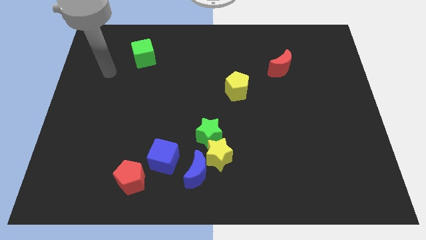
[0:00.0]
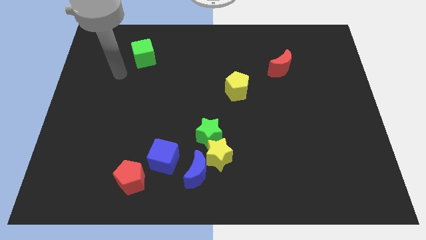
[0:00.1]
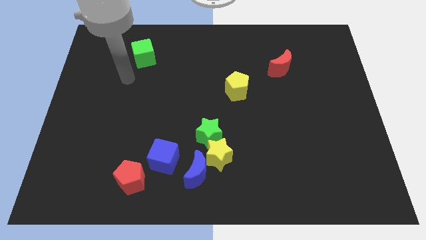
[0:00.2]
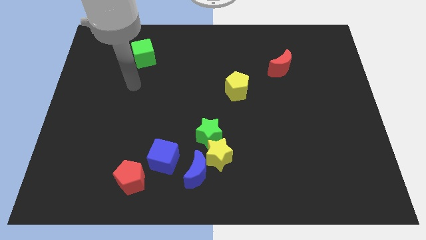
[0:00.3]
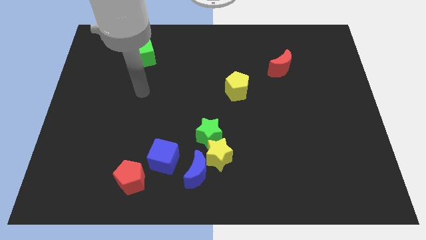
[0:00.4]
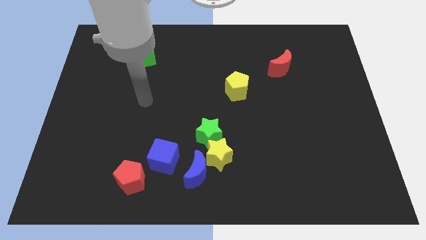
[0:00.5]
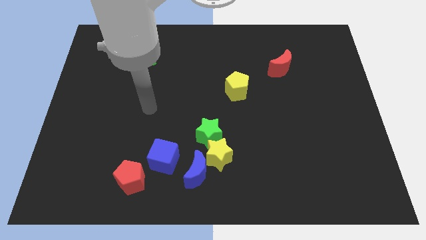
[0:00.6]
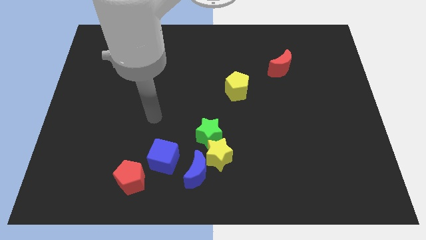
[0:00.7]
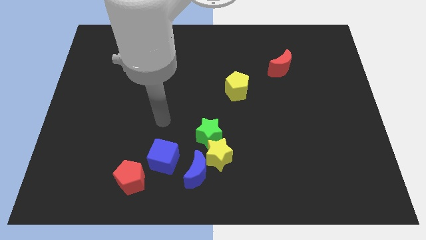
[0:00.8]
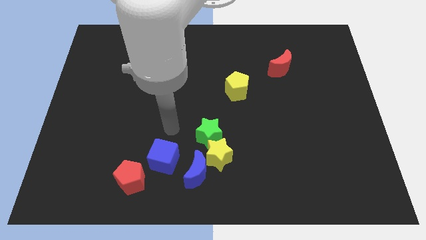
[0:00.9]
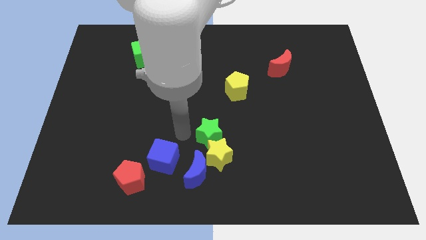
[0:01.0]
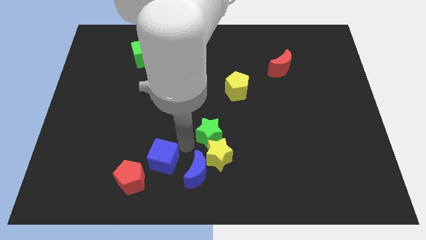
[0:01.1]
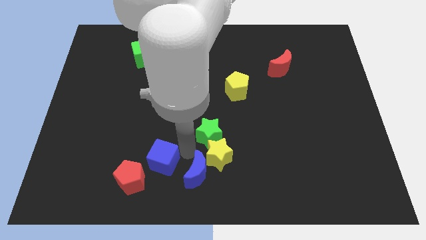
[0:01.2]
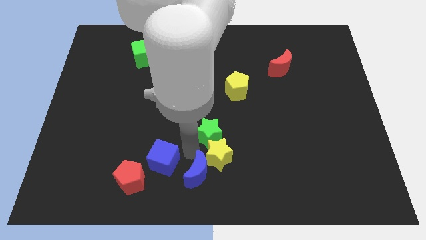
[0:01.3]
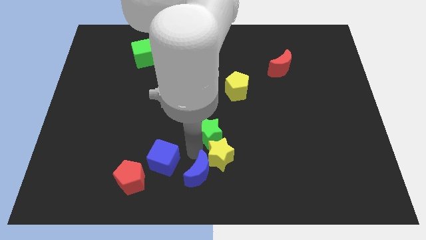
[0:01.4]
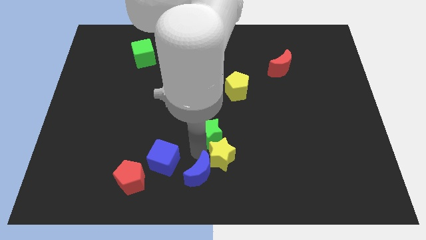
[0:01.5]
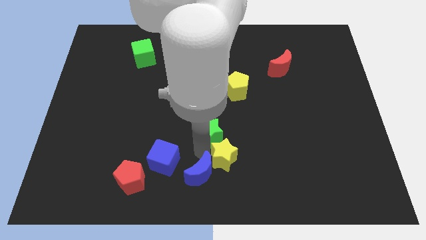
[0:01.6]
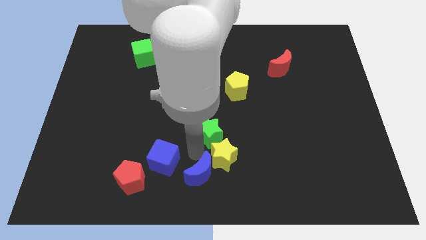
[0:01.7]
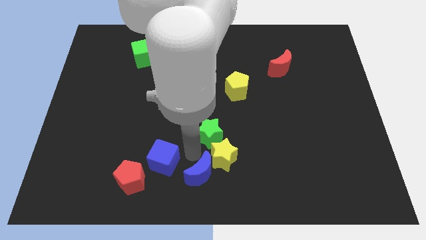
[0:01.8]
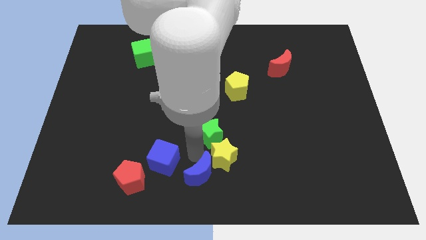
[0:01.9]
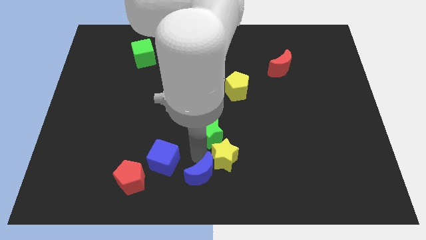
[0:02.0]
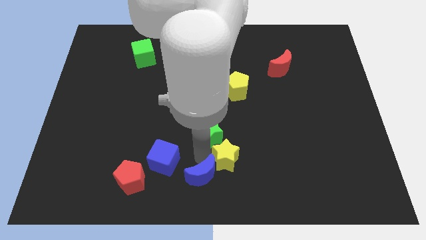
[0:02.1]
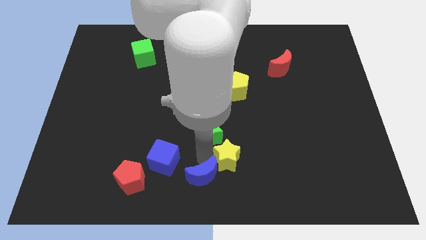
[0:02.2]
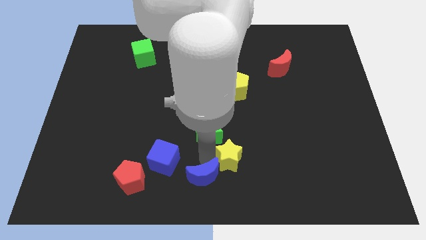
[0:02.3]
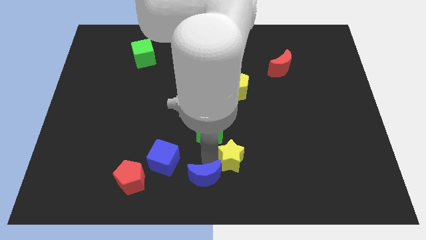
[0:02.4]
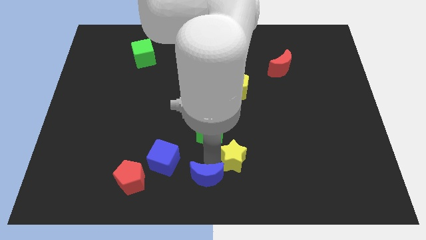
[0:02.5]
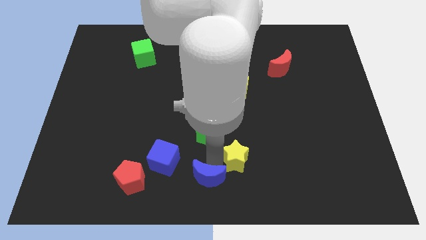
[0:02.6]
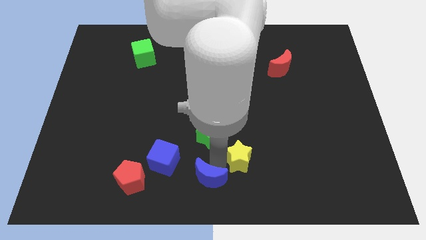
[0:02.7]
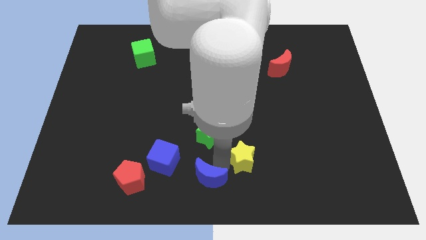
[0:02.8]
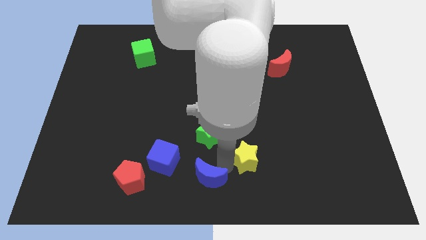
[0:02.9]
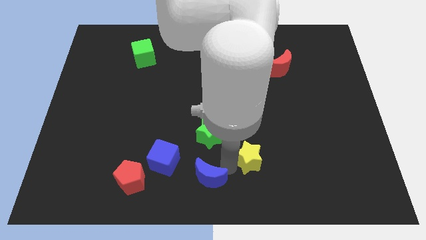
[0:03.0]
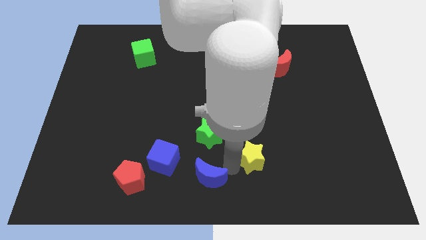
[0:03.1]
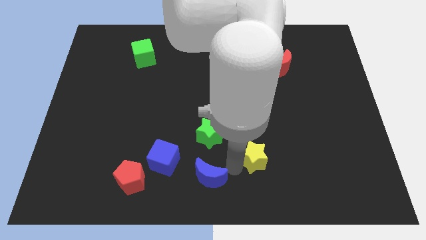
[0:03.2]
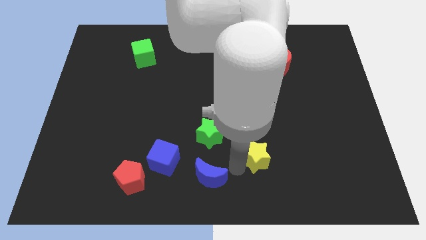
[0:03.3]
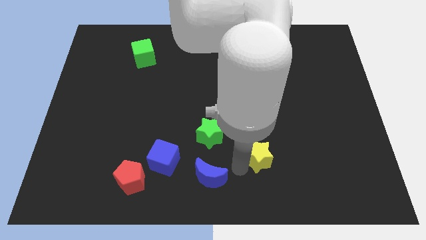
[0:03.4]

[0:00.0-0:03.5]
separate the yellow star from the green star and blue moon

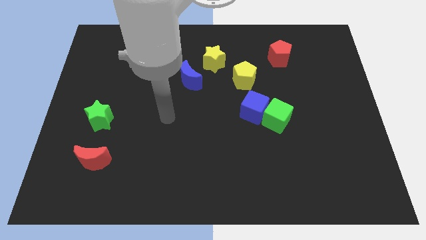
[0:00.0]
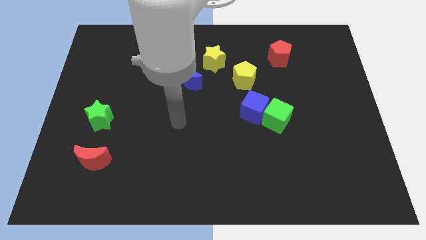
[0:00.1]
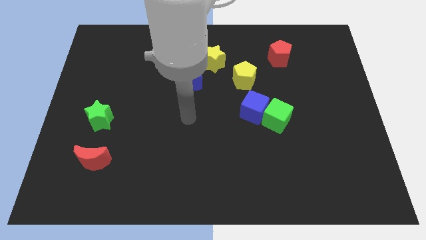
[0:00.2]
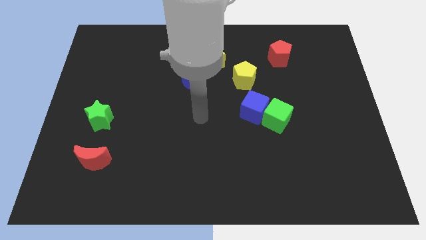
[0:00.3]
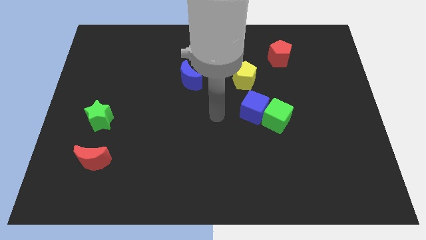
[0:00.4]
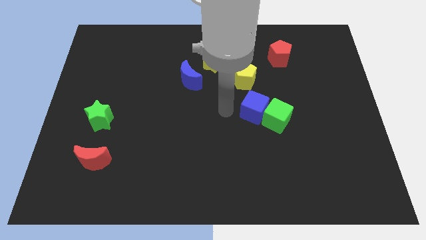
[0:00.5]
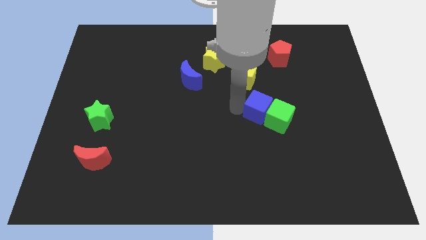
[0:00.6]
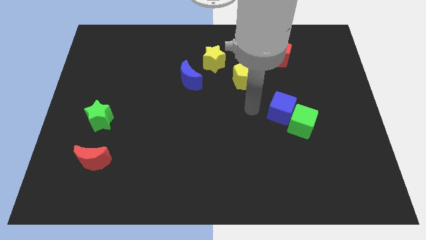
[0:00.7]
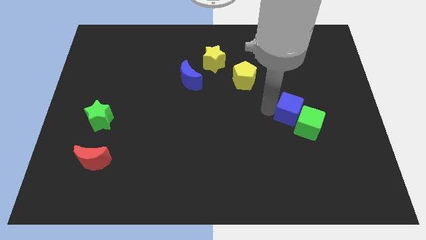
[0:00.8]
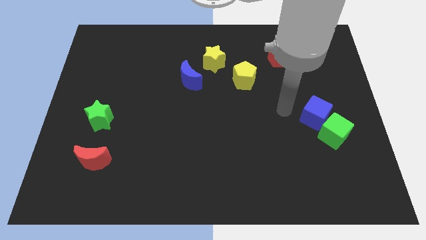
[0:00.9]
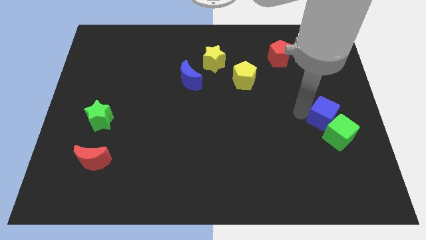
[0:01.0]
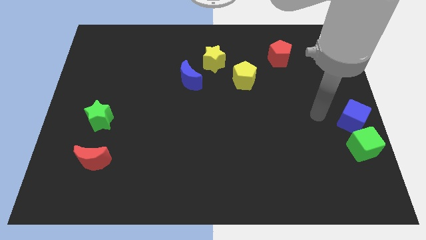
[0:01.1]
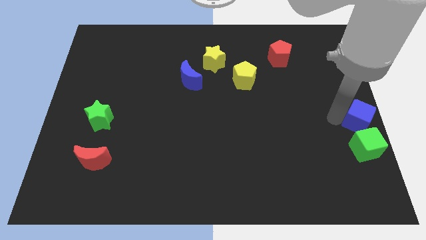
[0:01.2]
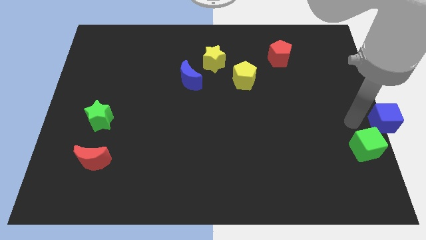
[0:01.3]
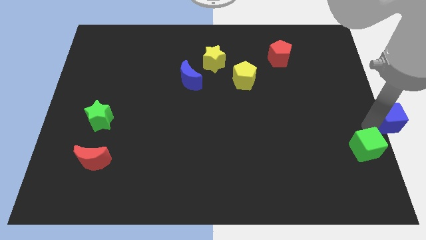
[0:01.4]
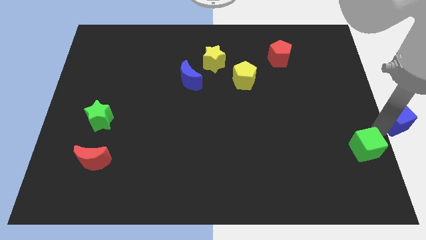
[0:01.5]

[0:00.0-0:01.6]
separate the green cube from the blue cube

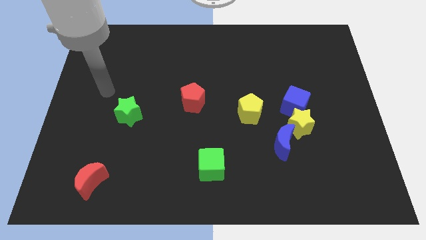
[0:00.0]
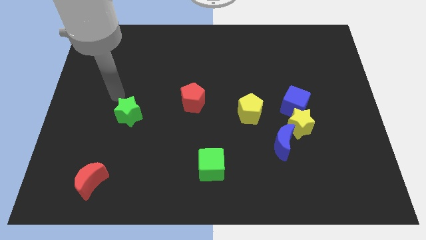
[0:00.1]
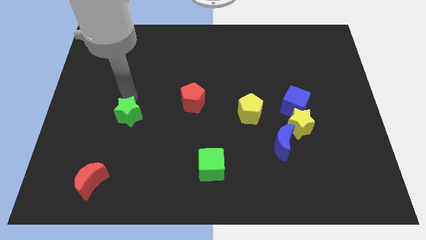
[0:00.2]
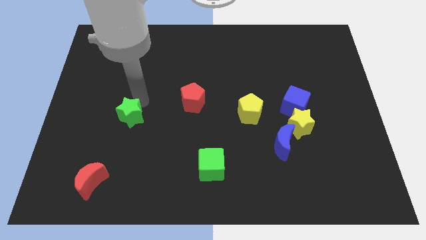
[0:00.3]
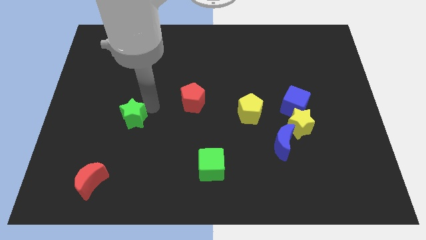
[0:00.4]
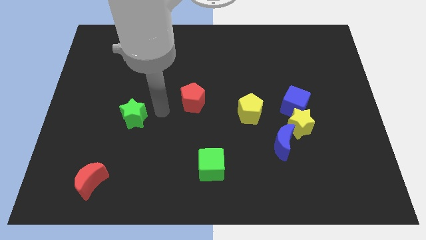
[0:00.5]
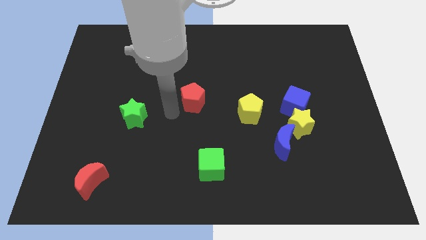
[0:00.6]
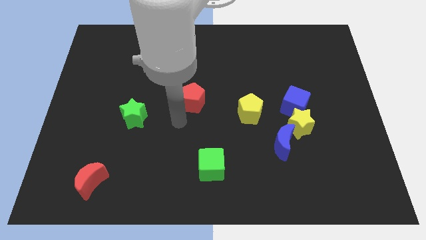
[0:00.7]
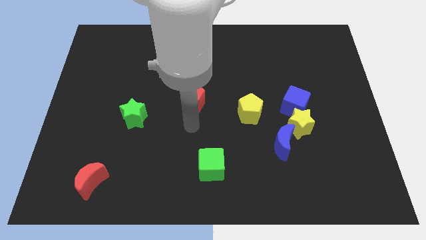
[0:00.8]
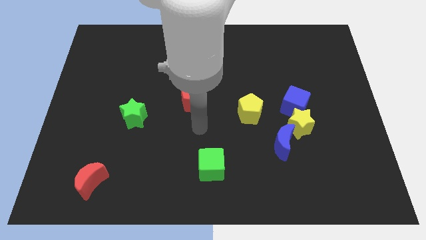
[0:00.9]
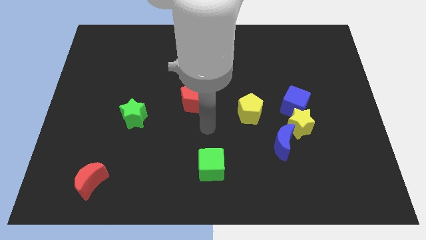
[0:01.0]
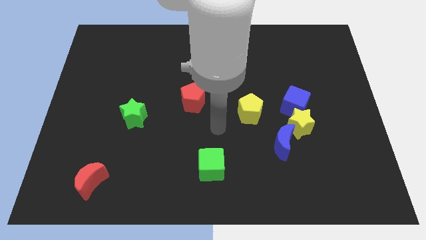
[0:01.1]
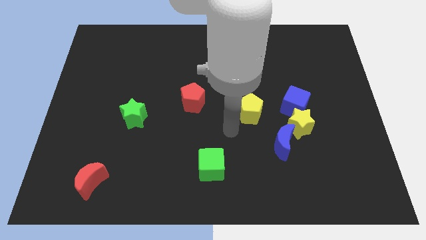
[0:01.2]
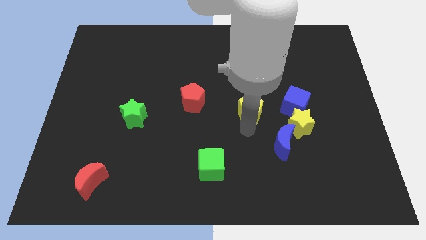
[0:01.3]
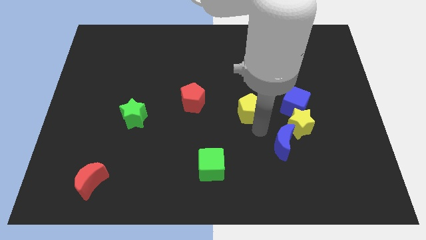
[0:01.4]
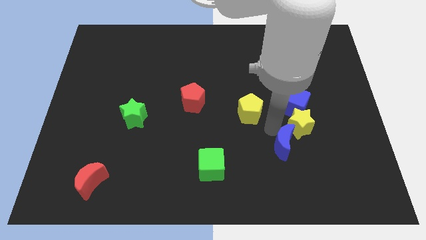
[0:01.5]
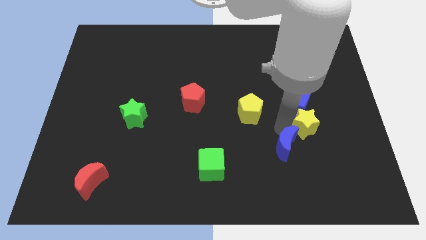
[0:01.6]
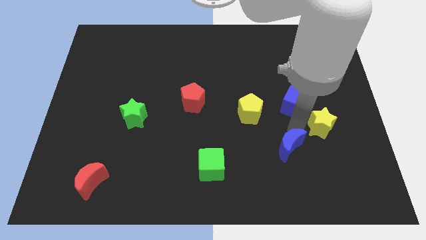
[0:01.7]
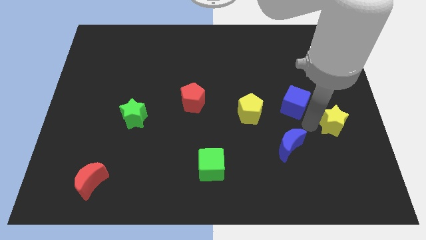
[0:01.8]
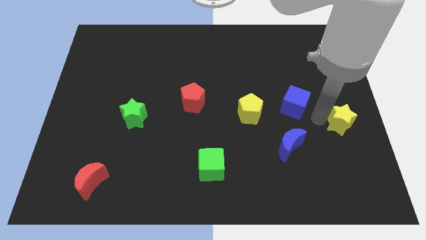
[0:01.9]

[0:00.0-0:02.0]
move the blue cube away from the yellow star

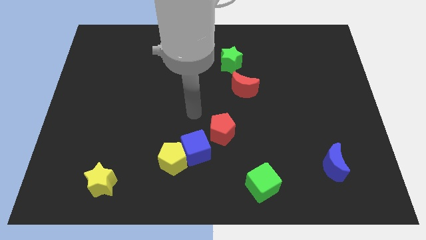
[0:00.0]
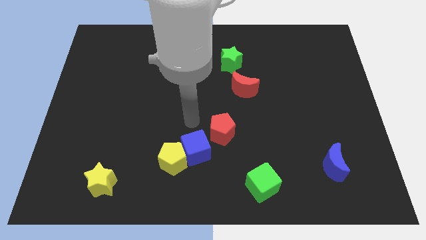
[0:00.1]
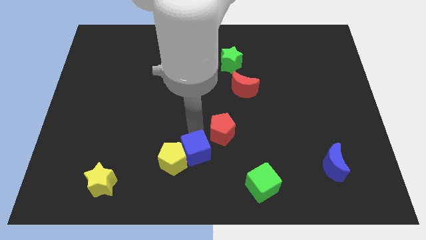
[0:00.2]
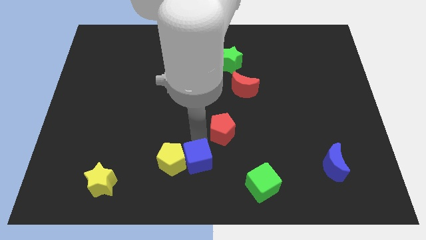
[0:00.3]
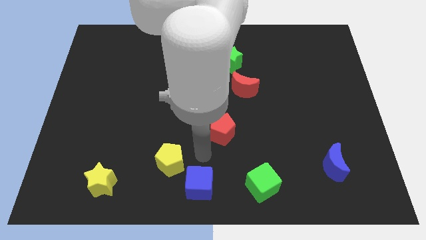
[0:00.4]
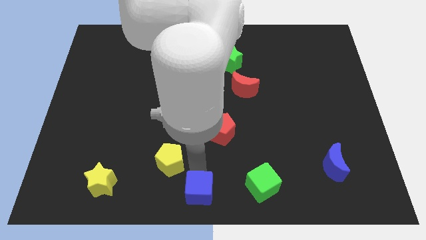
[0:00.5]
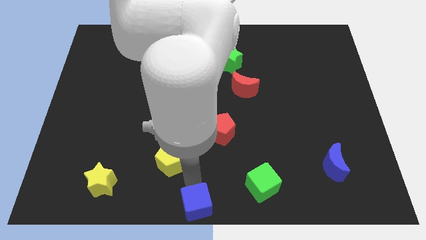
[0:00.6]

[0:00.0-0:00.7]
separate the yellow pentagon from the blue cube

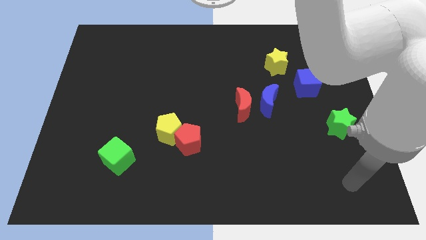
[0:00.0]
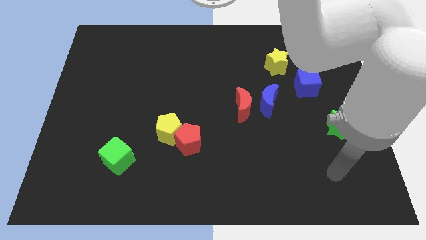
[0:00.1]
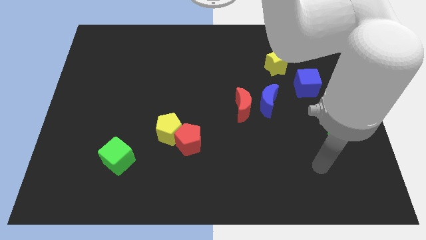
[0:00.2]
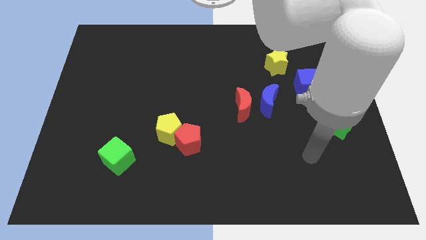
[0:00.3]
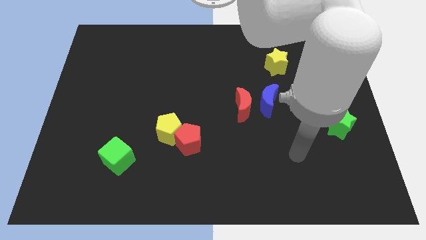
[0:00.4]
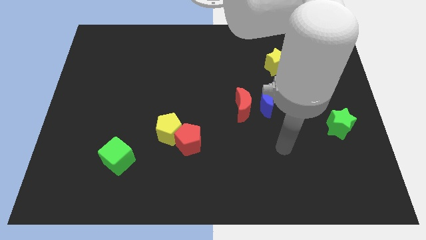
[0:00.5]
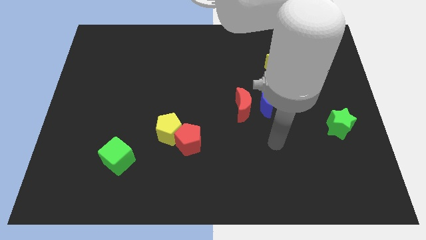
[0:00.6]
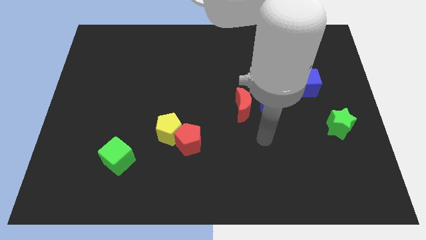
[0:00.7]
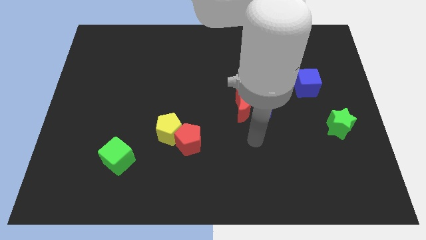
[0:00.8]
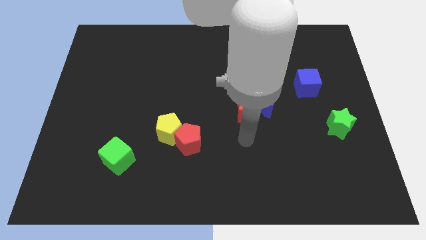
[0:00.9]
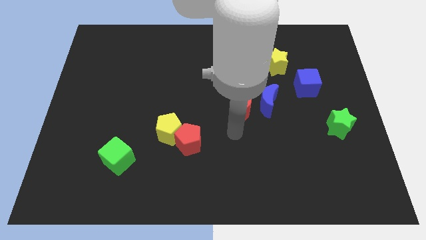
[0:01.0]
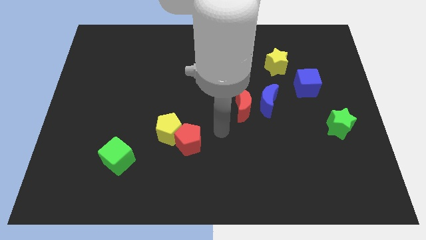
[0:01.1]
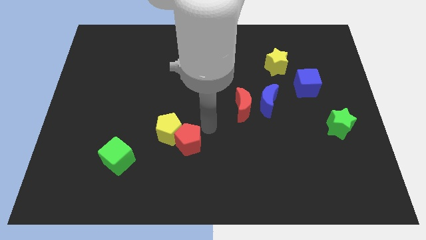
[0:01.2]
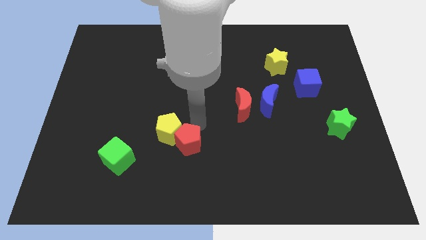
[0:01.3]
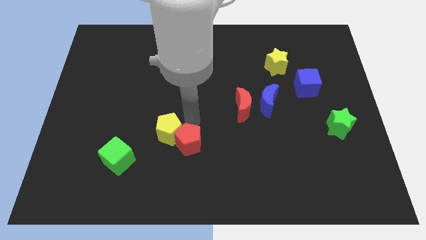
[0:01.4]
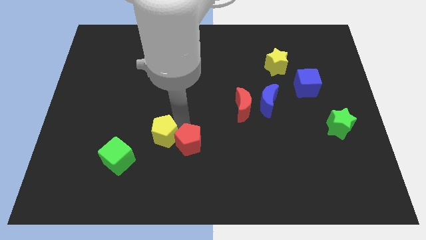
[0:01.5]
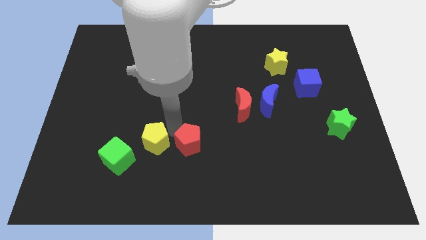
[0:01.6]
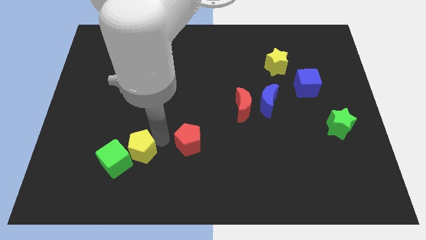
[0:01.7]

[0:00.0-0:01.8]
move the red pentagon away from the yellow pentagon
